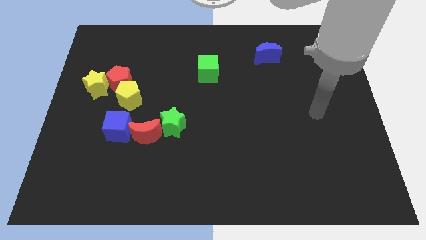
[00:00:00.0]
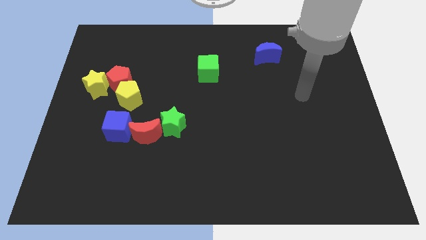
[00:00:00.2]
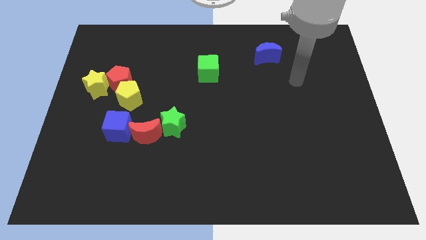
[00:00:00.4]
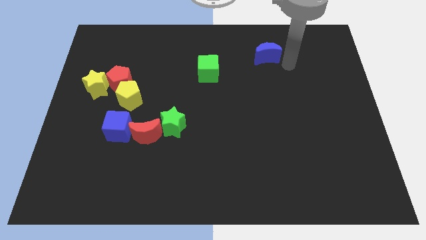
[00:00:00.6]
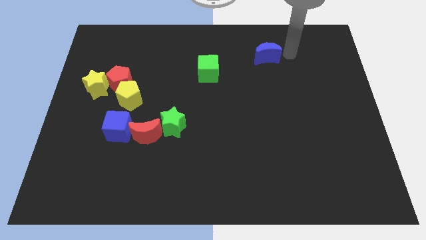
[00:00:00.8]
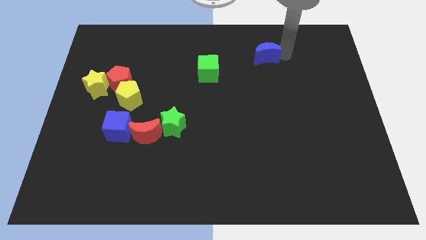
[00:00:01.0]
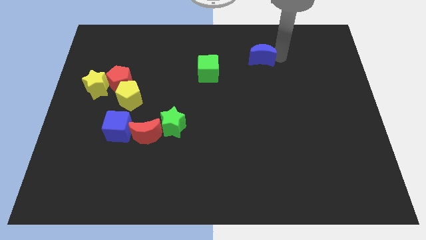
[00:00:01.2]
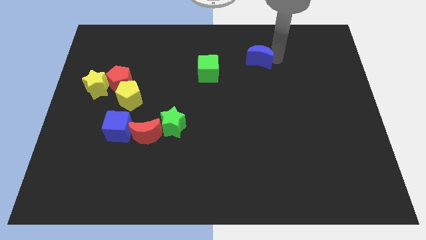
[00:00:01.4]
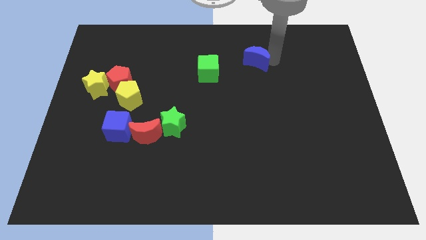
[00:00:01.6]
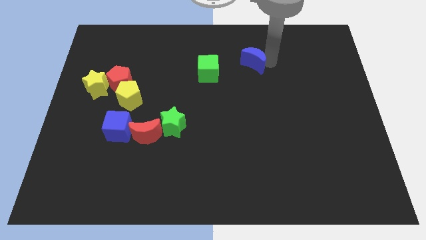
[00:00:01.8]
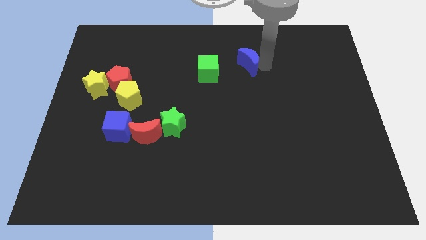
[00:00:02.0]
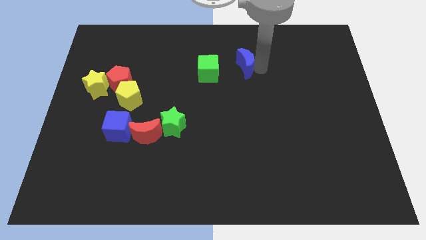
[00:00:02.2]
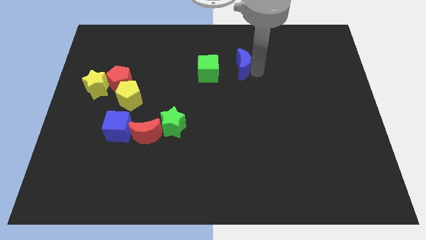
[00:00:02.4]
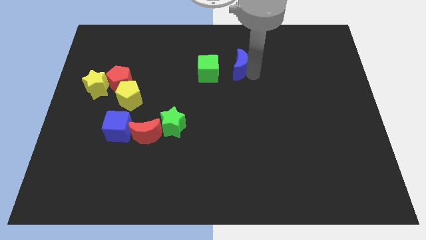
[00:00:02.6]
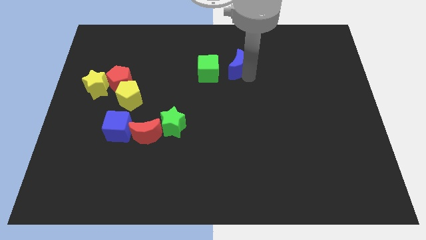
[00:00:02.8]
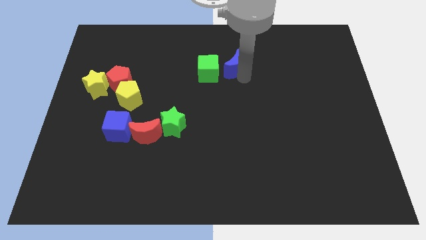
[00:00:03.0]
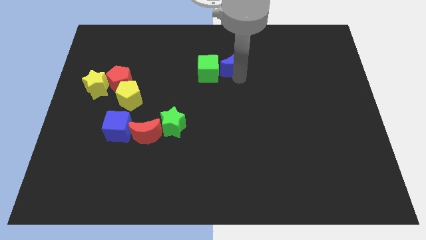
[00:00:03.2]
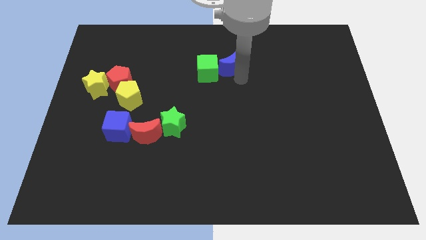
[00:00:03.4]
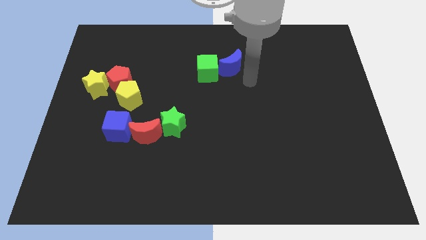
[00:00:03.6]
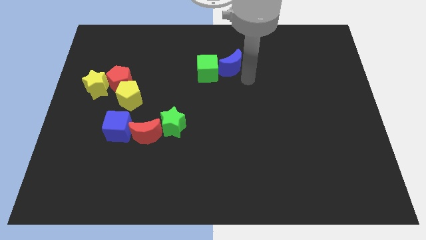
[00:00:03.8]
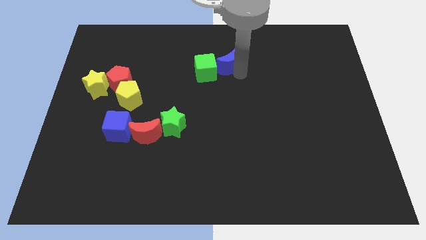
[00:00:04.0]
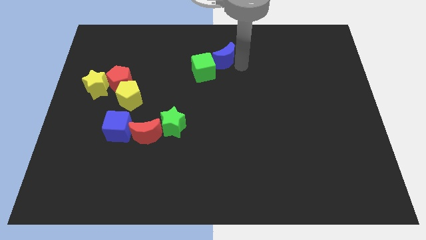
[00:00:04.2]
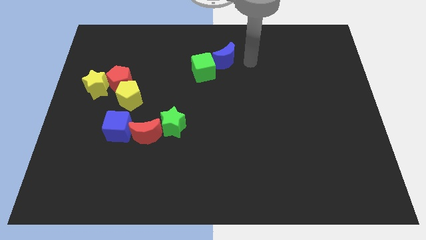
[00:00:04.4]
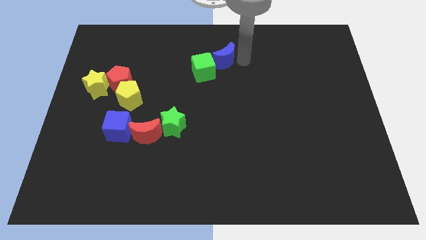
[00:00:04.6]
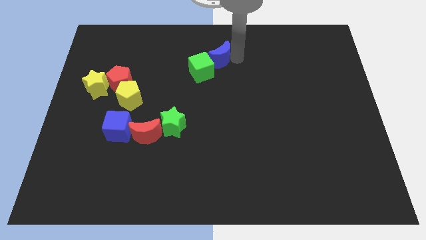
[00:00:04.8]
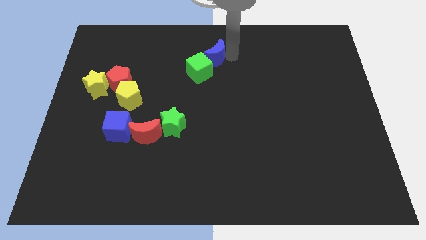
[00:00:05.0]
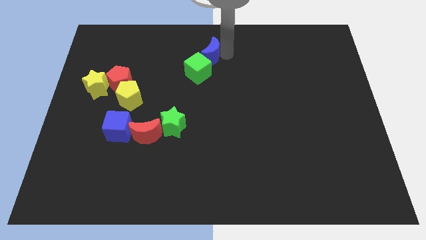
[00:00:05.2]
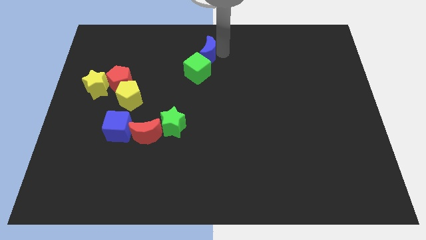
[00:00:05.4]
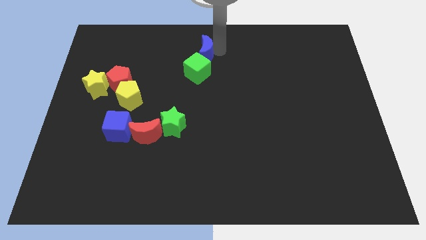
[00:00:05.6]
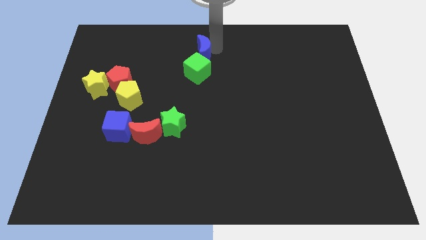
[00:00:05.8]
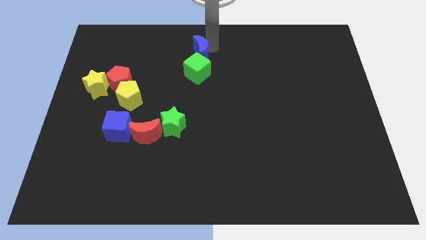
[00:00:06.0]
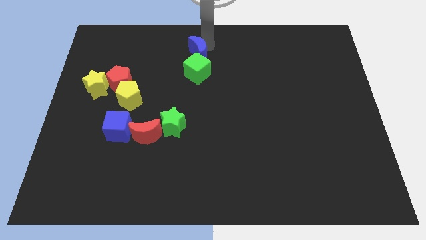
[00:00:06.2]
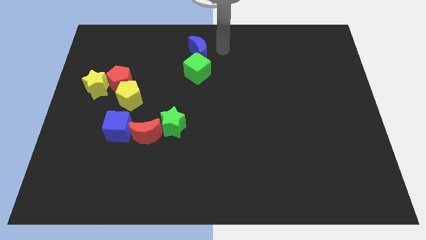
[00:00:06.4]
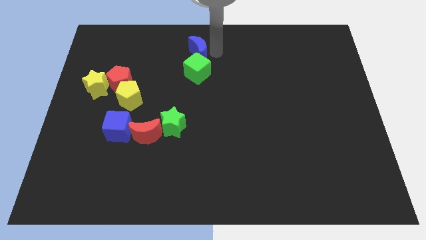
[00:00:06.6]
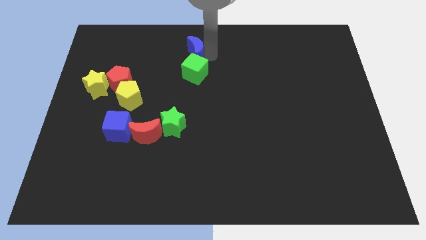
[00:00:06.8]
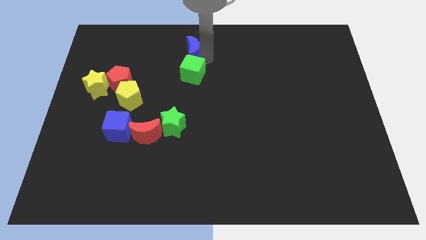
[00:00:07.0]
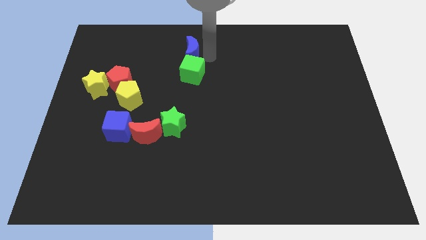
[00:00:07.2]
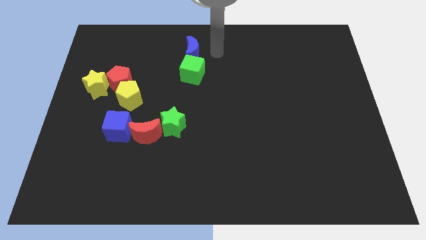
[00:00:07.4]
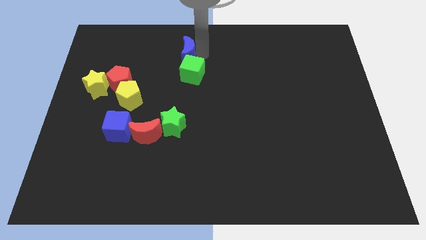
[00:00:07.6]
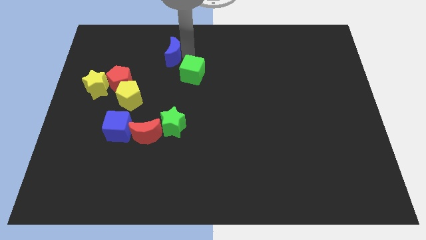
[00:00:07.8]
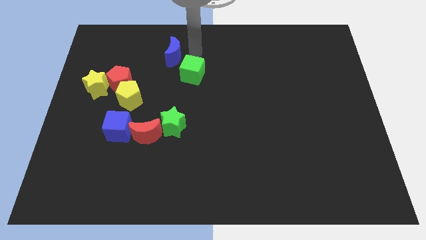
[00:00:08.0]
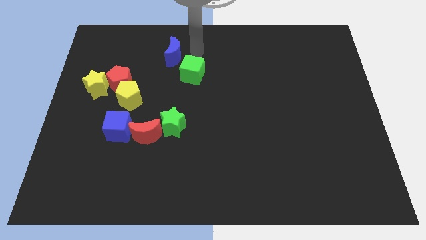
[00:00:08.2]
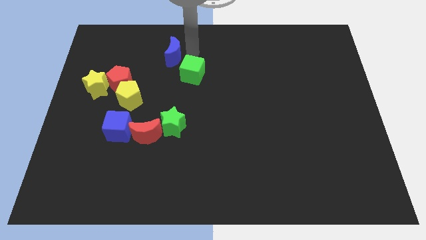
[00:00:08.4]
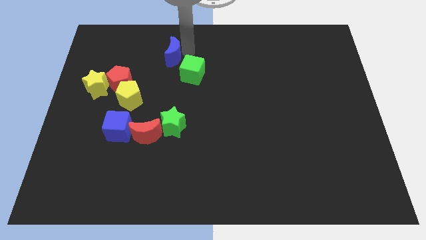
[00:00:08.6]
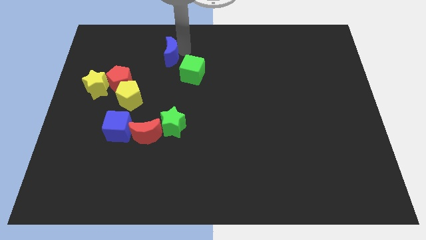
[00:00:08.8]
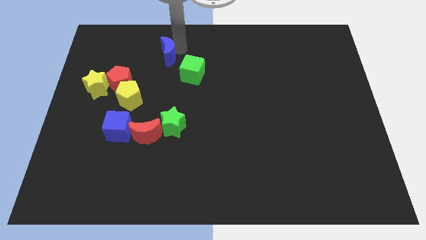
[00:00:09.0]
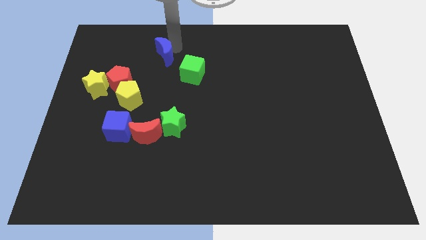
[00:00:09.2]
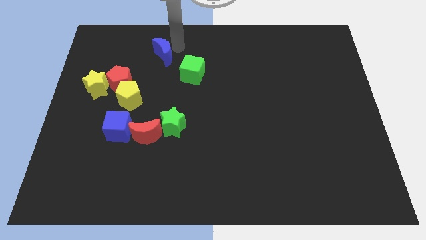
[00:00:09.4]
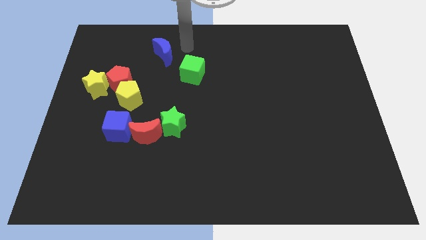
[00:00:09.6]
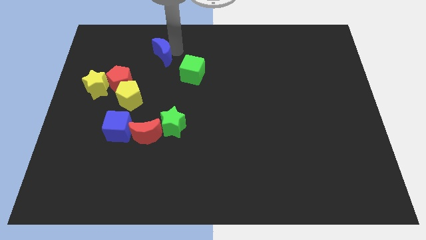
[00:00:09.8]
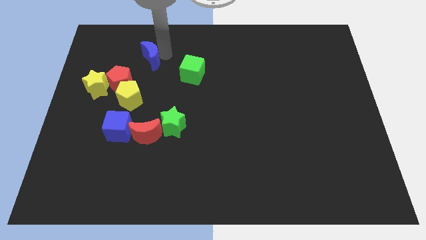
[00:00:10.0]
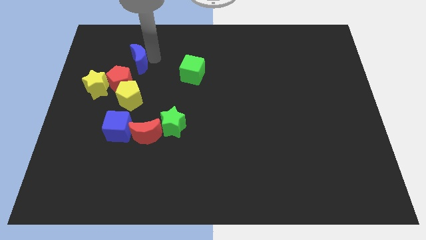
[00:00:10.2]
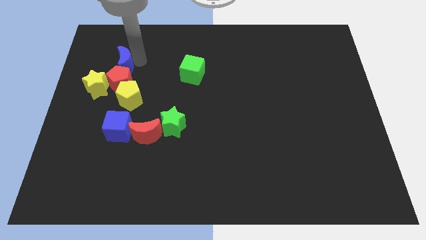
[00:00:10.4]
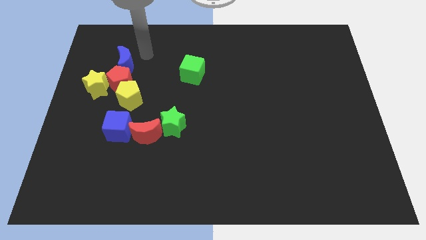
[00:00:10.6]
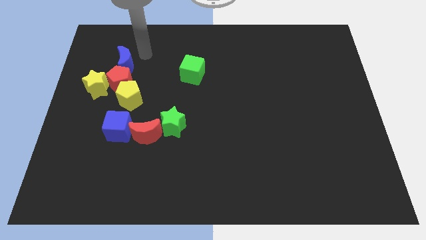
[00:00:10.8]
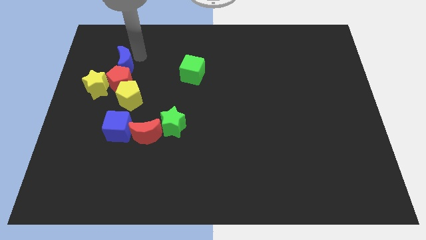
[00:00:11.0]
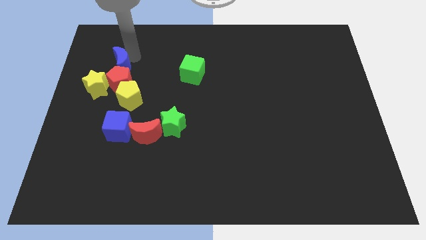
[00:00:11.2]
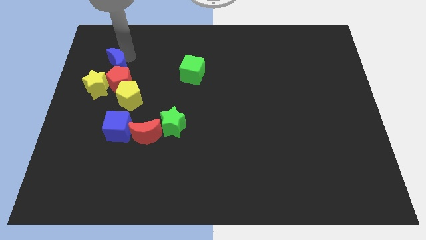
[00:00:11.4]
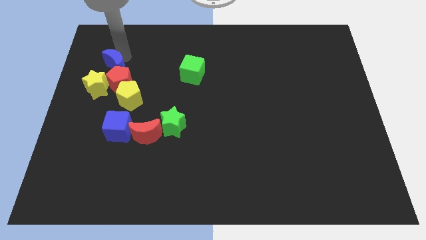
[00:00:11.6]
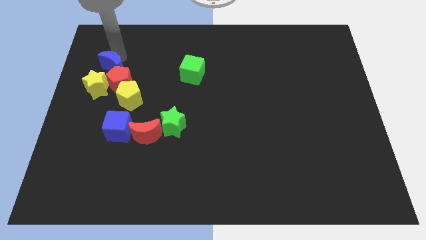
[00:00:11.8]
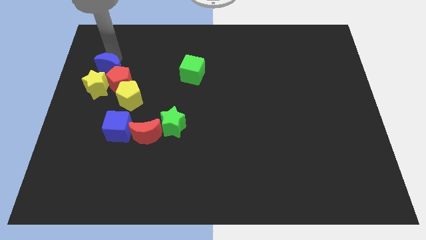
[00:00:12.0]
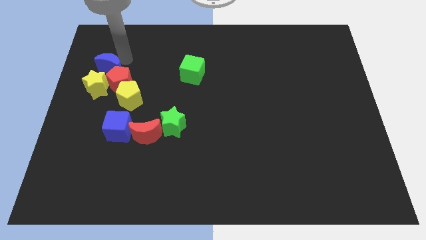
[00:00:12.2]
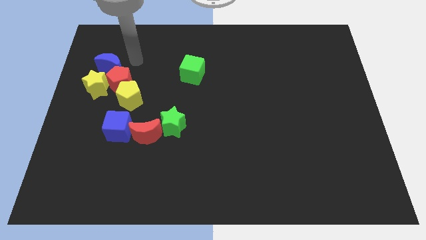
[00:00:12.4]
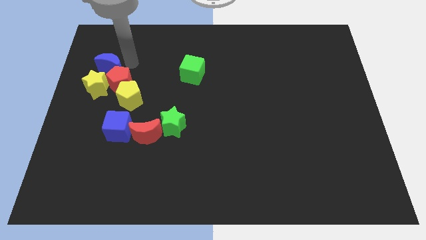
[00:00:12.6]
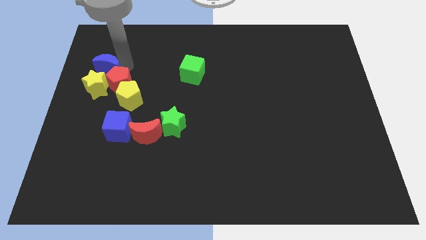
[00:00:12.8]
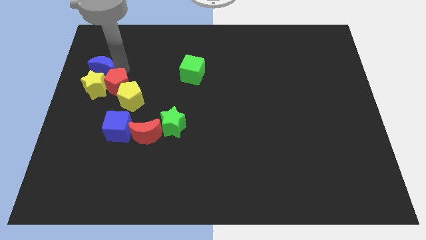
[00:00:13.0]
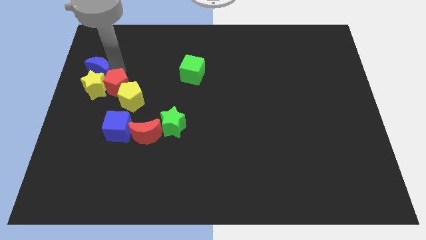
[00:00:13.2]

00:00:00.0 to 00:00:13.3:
slide the blue moon to the left side of the board

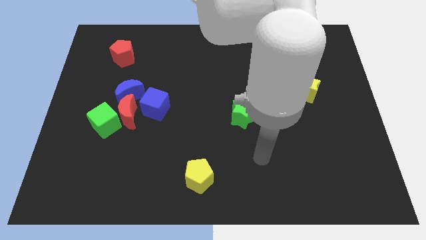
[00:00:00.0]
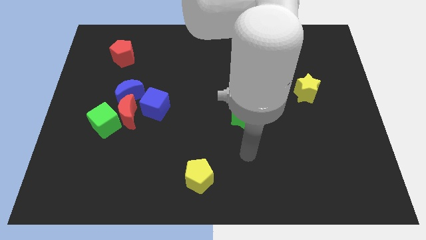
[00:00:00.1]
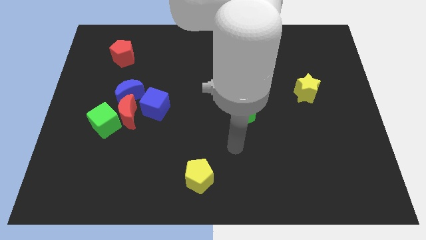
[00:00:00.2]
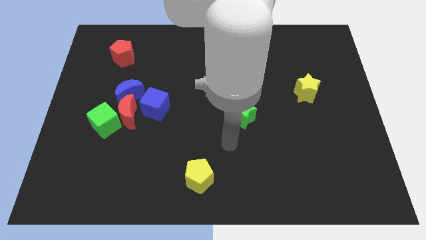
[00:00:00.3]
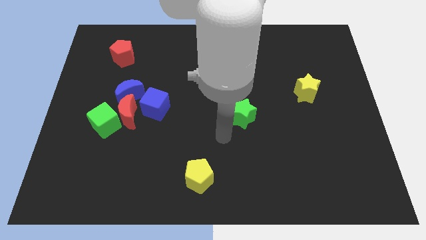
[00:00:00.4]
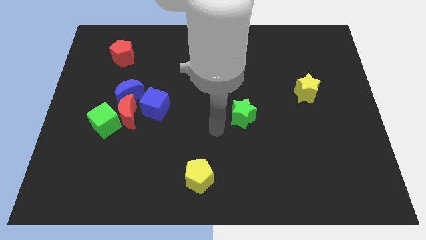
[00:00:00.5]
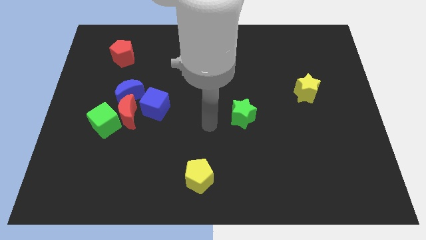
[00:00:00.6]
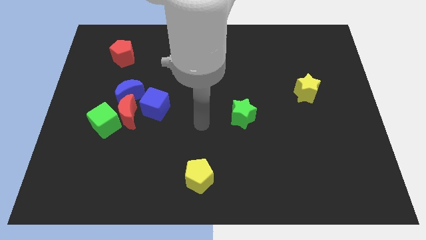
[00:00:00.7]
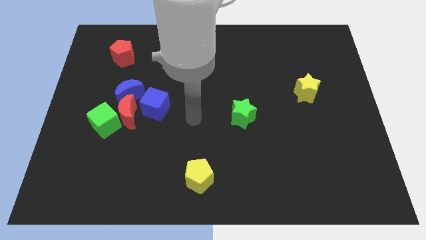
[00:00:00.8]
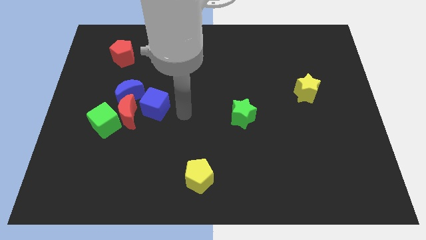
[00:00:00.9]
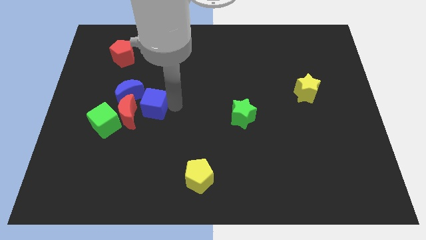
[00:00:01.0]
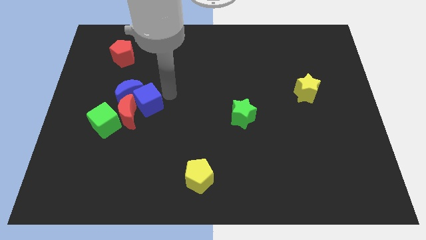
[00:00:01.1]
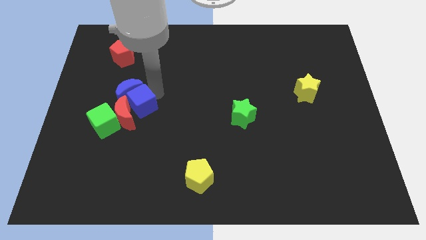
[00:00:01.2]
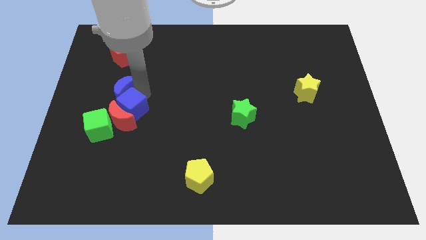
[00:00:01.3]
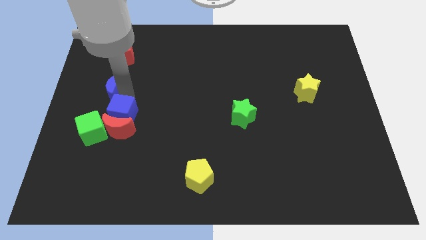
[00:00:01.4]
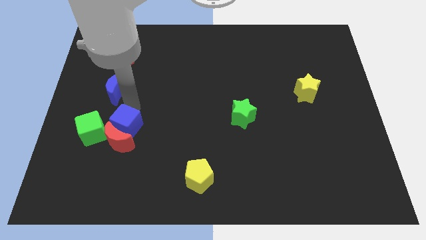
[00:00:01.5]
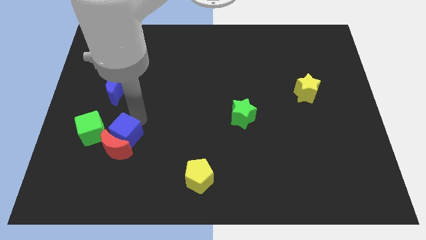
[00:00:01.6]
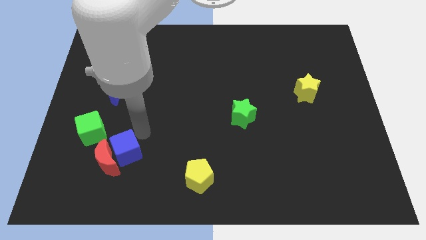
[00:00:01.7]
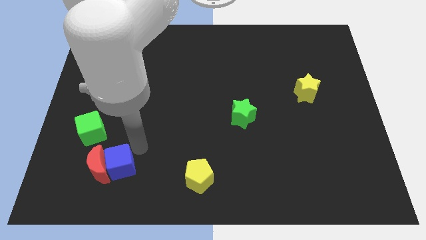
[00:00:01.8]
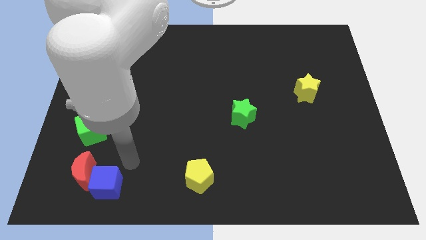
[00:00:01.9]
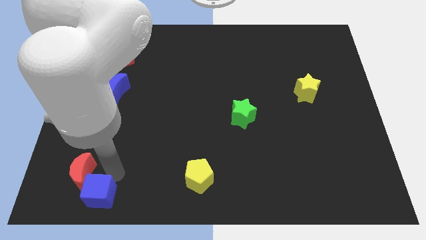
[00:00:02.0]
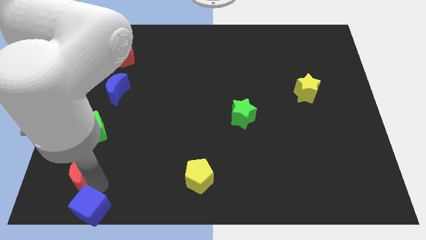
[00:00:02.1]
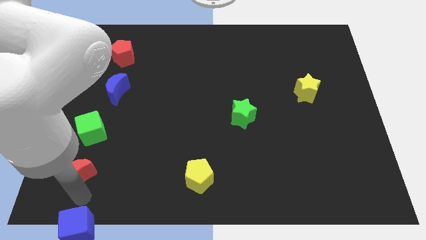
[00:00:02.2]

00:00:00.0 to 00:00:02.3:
put the red moon to the bottom left corner
